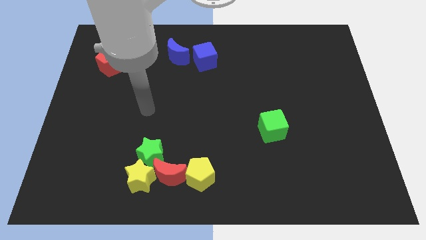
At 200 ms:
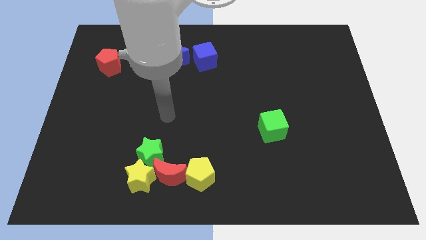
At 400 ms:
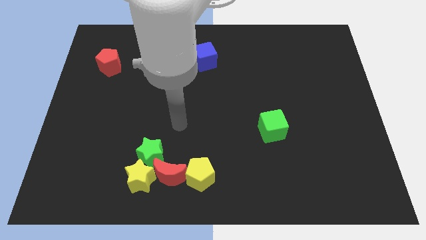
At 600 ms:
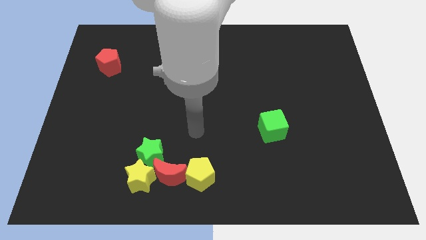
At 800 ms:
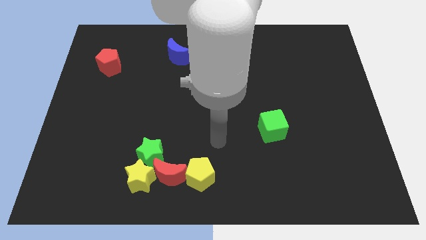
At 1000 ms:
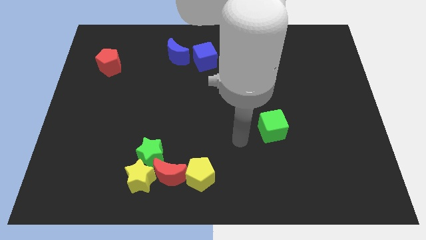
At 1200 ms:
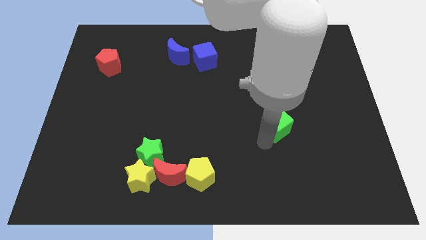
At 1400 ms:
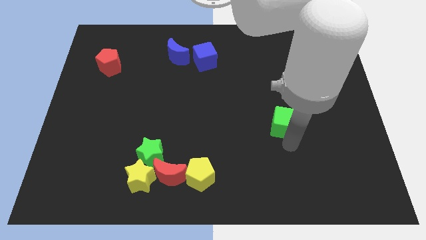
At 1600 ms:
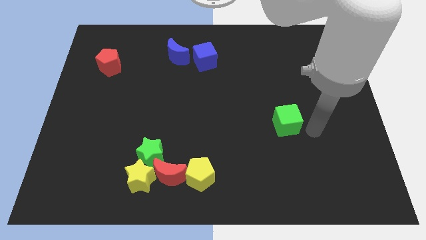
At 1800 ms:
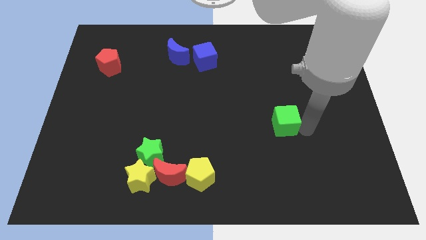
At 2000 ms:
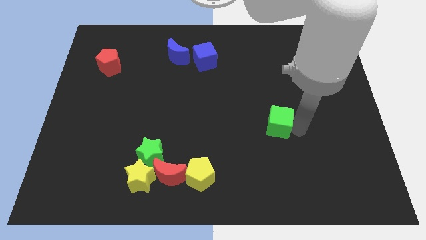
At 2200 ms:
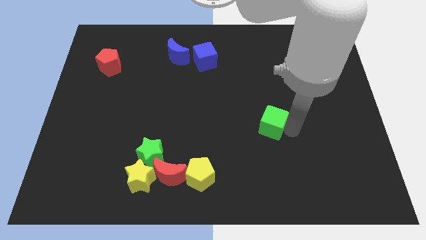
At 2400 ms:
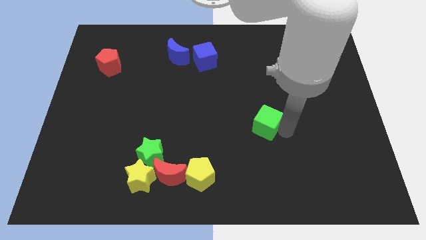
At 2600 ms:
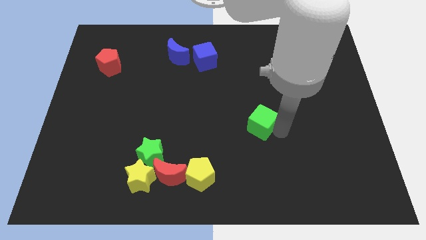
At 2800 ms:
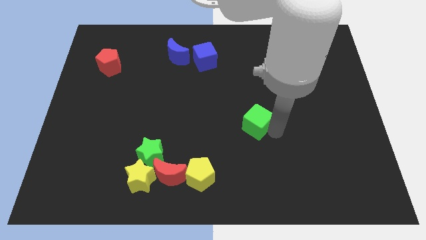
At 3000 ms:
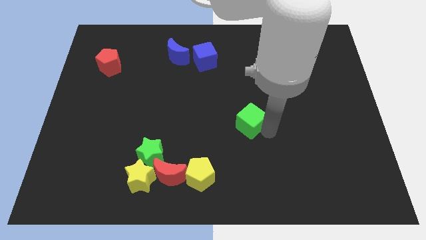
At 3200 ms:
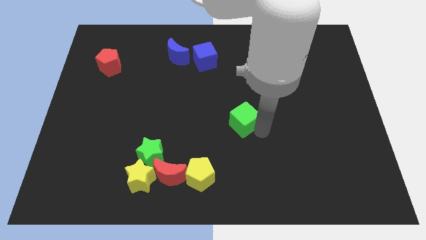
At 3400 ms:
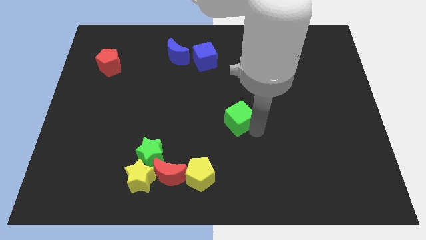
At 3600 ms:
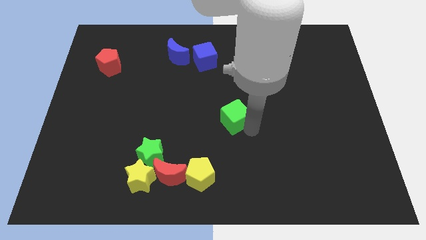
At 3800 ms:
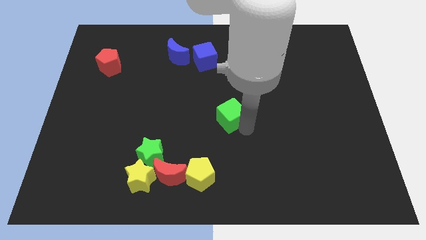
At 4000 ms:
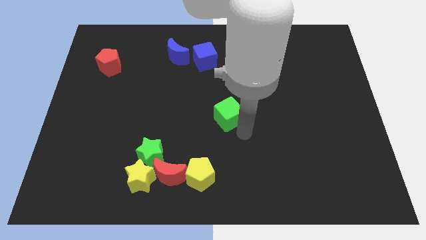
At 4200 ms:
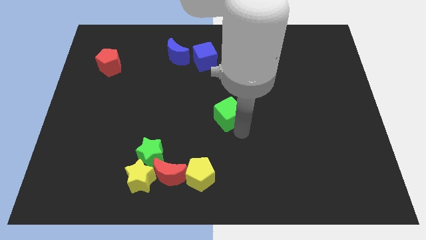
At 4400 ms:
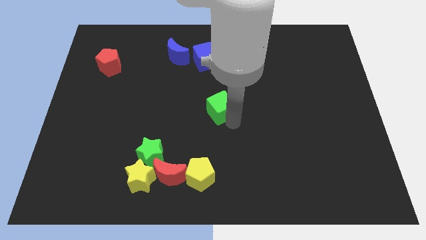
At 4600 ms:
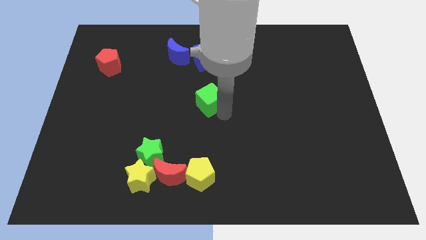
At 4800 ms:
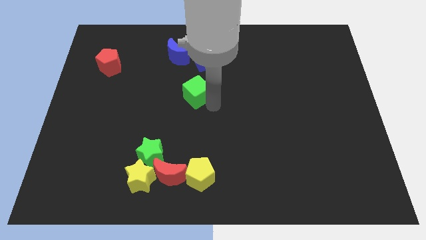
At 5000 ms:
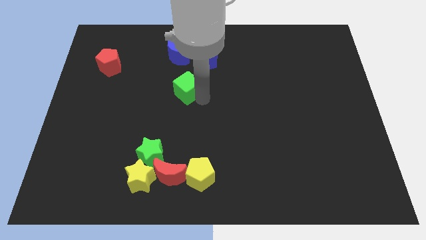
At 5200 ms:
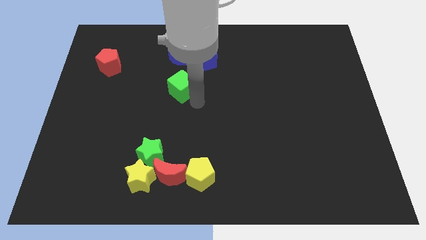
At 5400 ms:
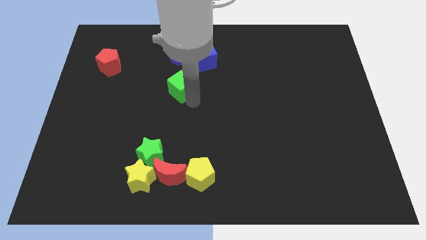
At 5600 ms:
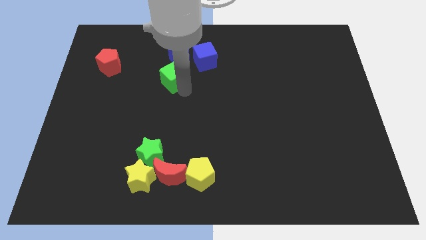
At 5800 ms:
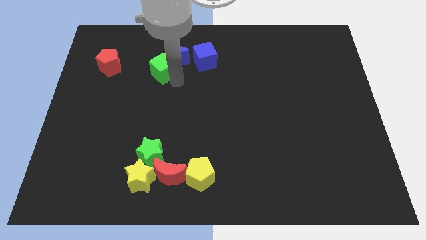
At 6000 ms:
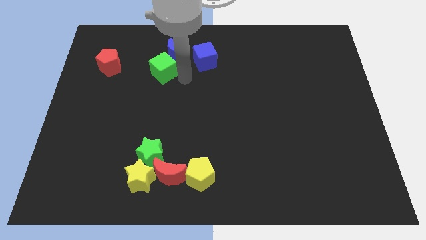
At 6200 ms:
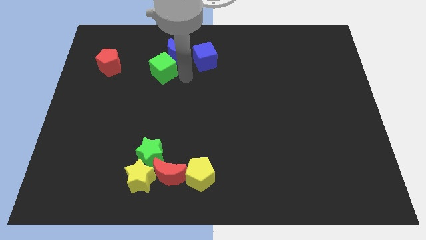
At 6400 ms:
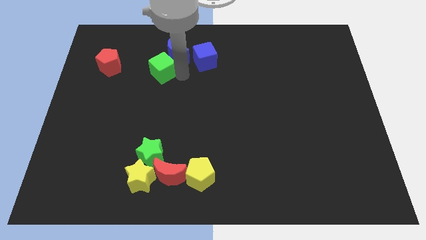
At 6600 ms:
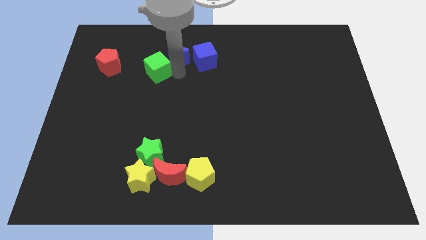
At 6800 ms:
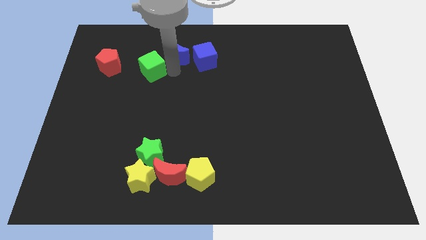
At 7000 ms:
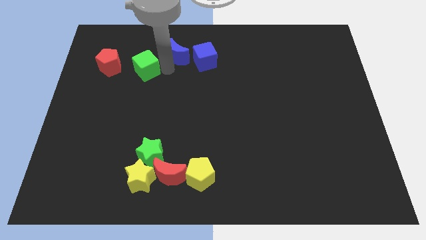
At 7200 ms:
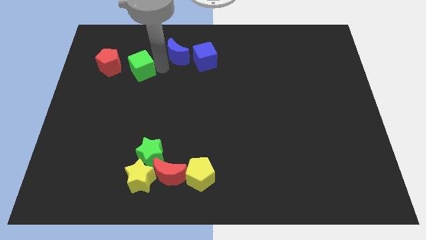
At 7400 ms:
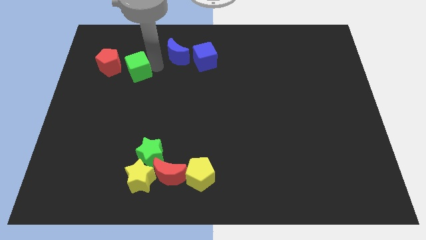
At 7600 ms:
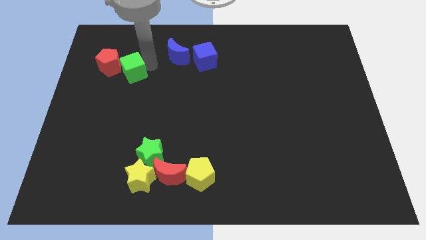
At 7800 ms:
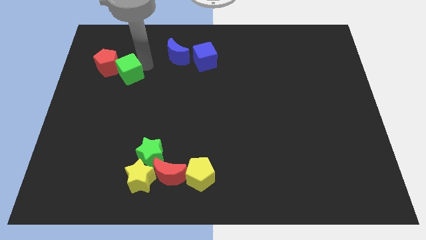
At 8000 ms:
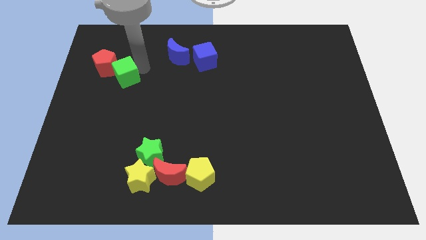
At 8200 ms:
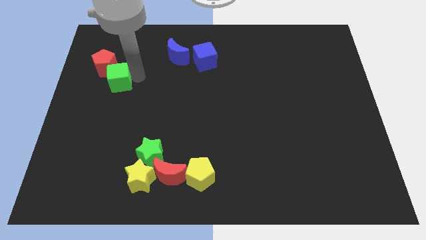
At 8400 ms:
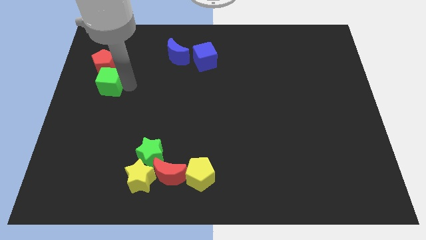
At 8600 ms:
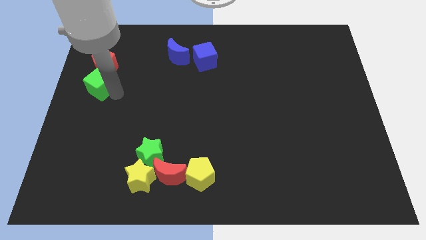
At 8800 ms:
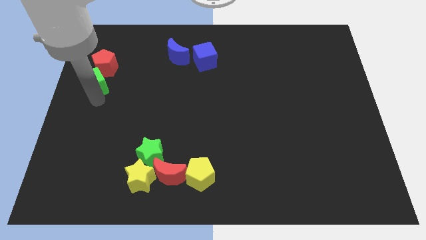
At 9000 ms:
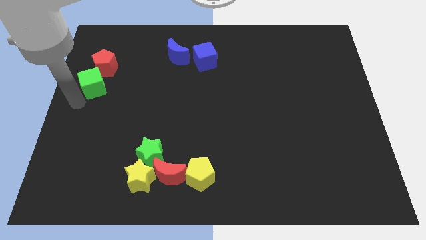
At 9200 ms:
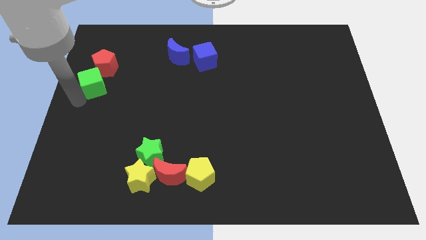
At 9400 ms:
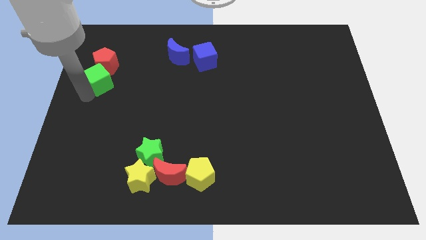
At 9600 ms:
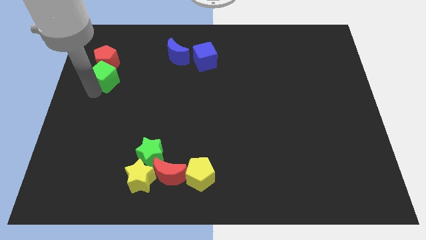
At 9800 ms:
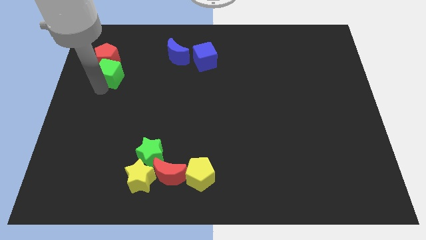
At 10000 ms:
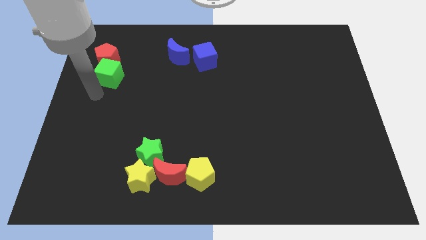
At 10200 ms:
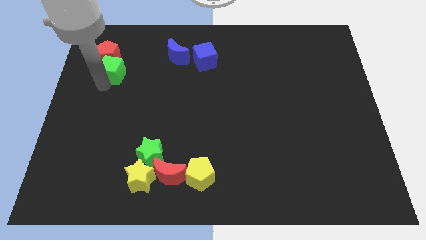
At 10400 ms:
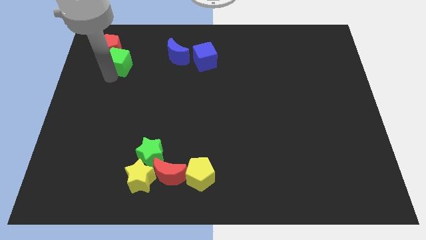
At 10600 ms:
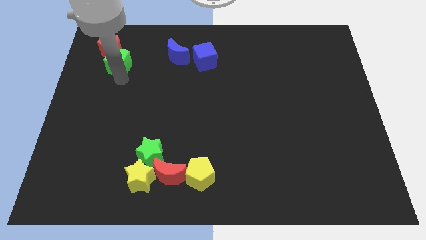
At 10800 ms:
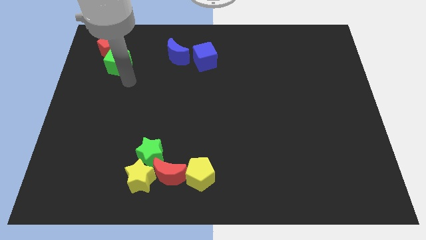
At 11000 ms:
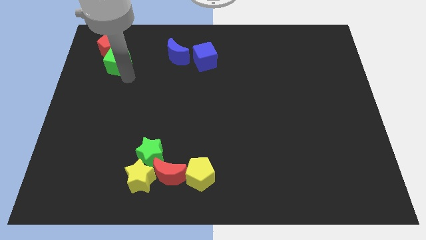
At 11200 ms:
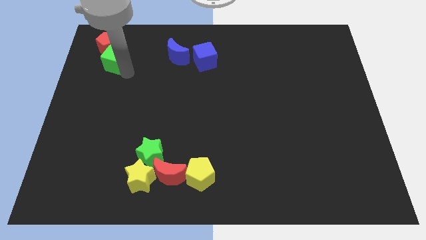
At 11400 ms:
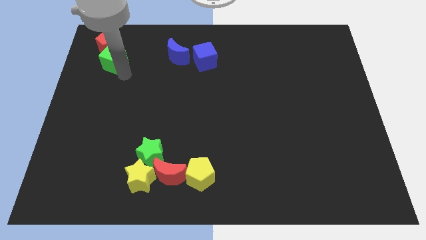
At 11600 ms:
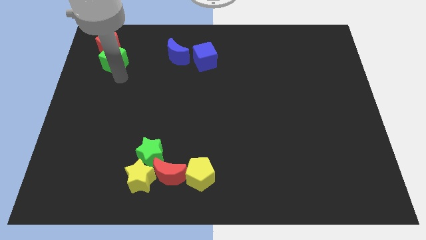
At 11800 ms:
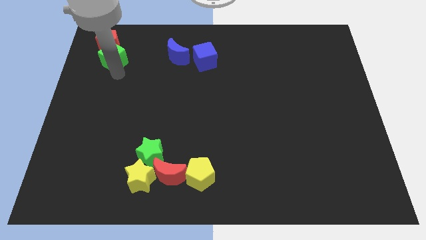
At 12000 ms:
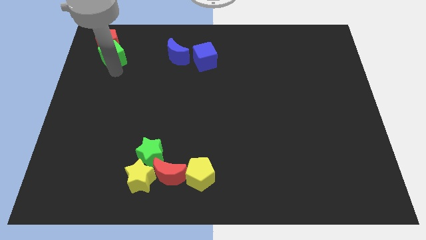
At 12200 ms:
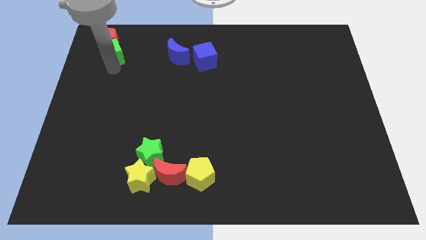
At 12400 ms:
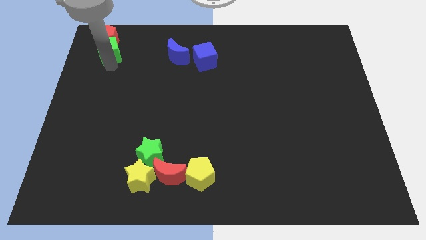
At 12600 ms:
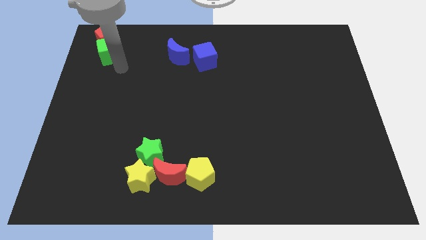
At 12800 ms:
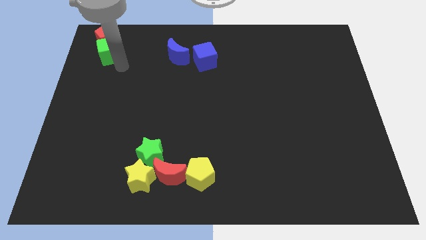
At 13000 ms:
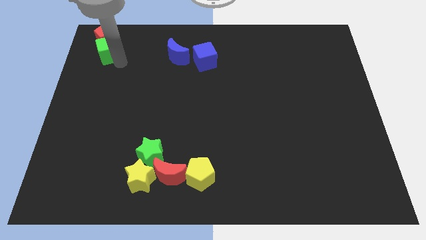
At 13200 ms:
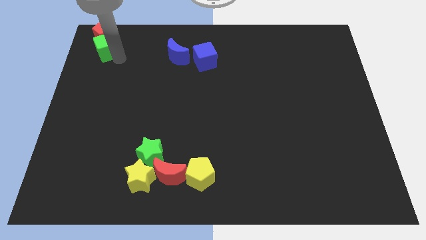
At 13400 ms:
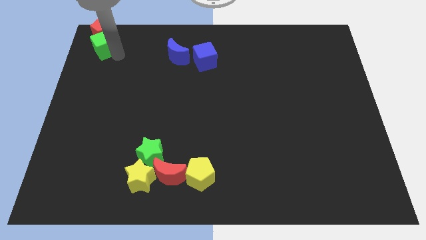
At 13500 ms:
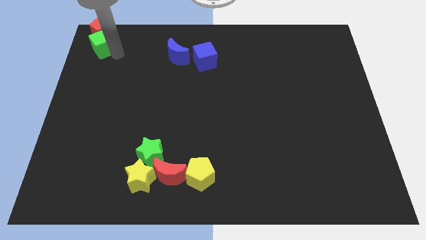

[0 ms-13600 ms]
push the green cube to the upper left corner
